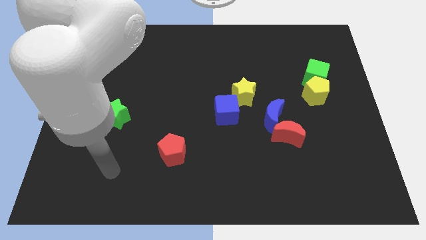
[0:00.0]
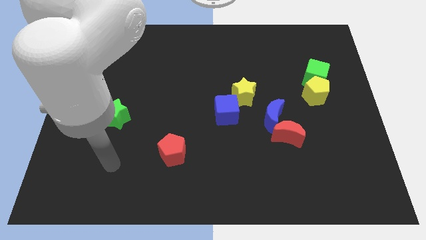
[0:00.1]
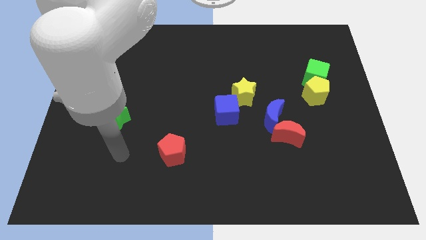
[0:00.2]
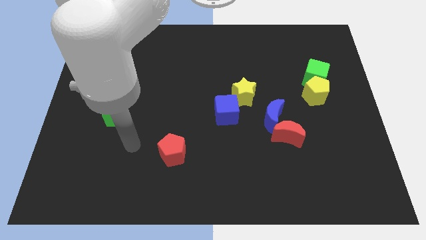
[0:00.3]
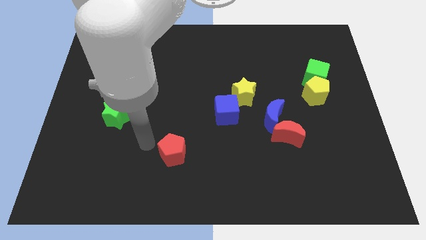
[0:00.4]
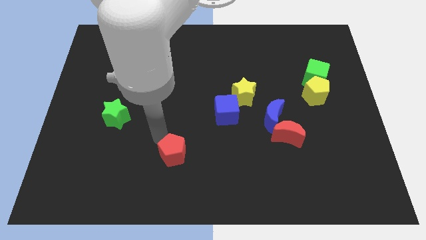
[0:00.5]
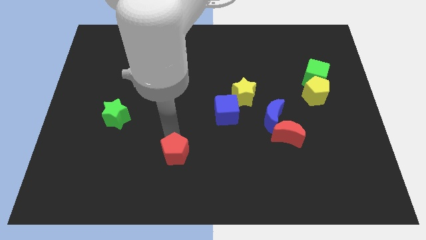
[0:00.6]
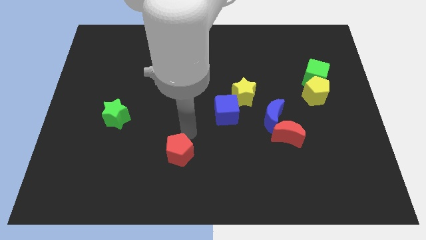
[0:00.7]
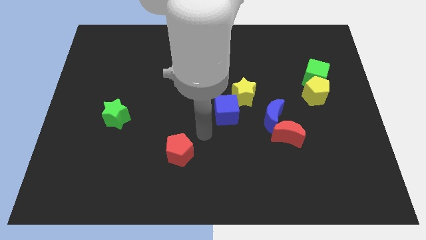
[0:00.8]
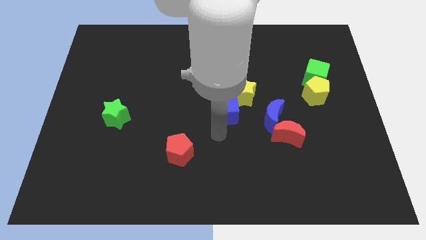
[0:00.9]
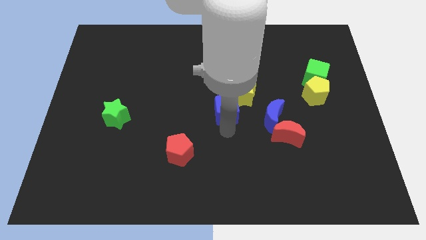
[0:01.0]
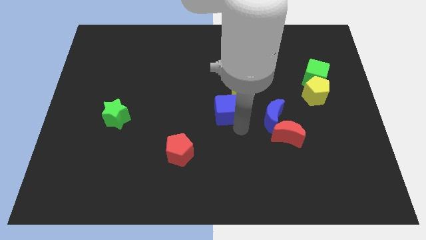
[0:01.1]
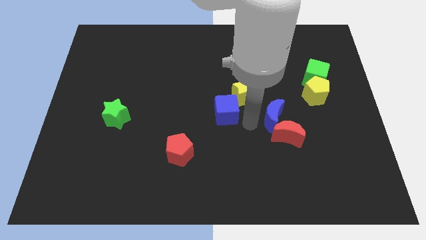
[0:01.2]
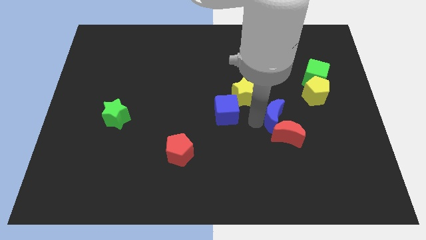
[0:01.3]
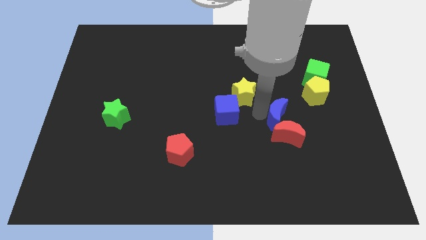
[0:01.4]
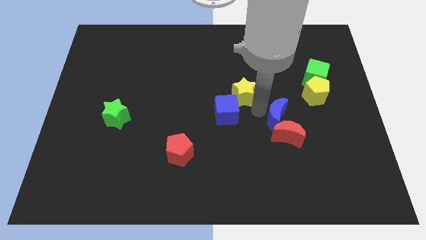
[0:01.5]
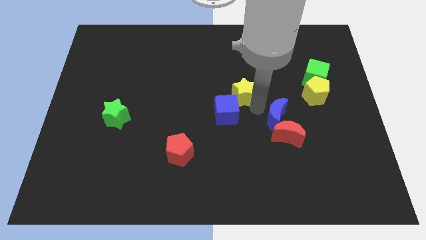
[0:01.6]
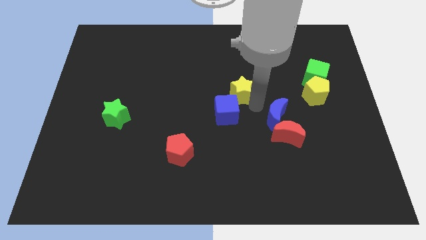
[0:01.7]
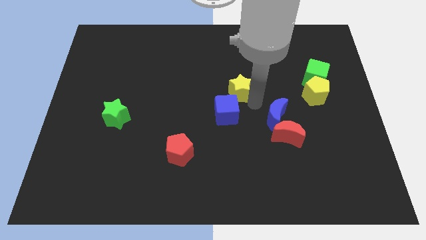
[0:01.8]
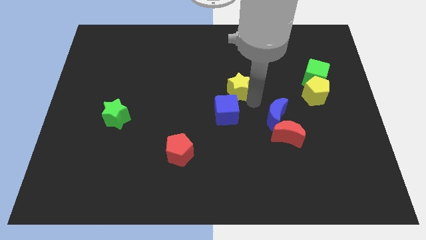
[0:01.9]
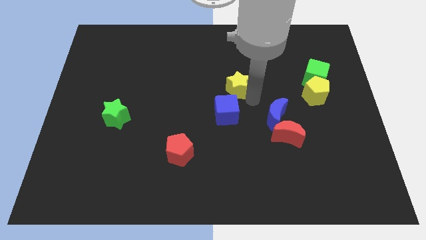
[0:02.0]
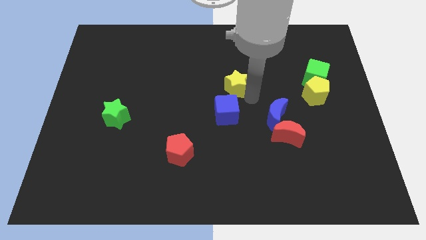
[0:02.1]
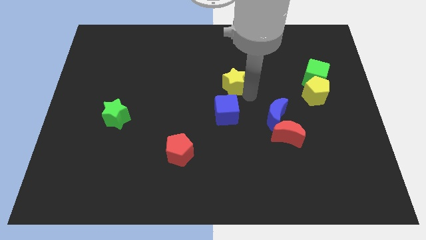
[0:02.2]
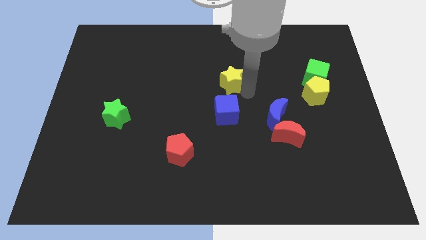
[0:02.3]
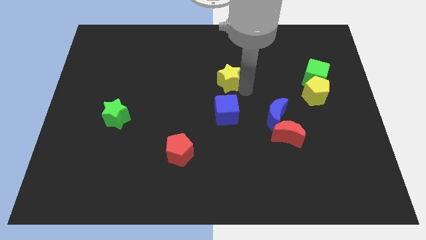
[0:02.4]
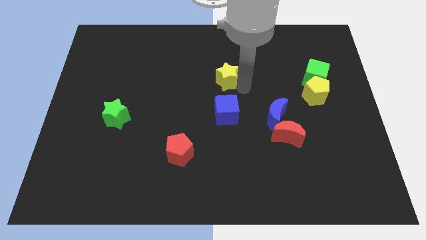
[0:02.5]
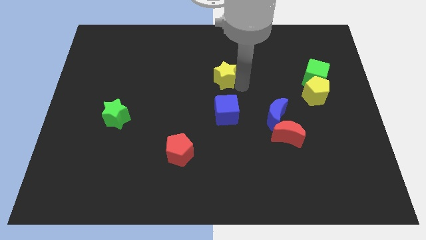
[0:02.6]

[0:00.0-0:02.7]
push the yellow star diagonally up and to the left slightly

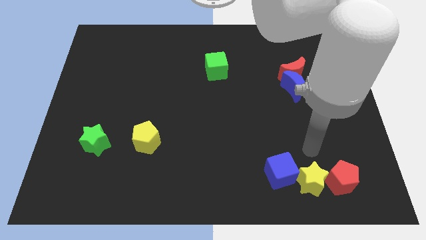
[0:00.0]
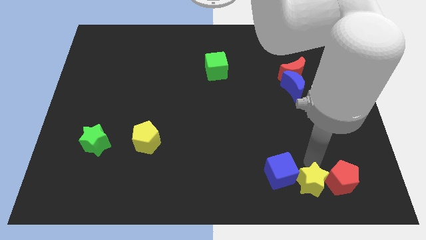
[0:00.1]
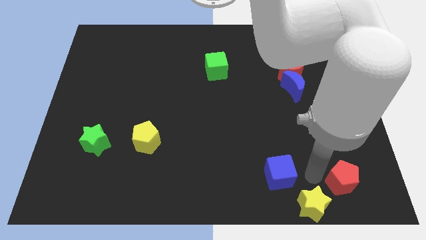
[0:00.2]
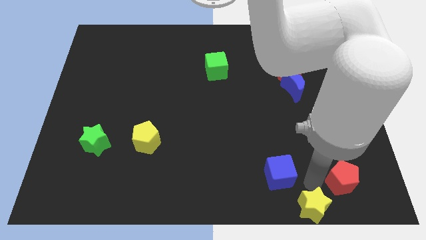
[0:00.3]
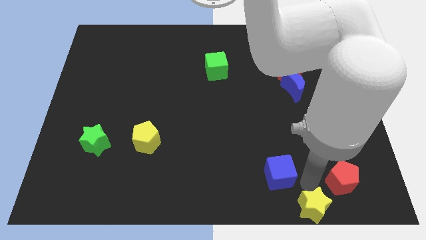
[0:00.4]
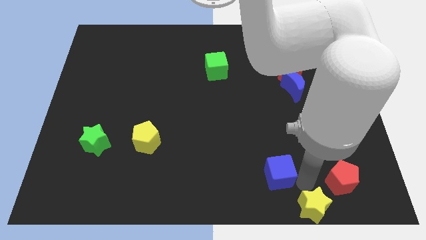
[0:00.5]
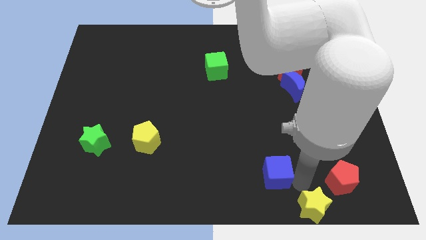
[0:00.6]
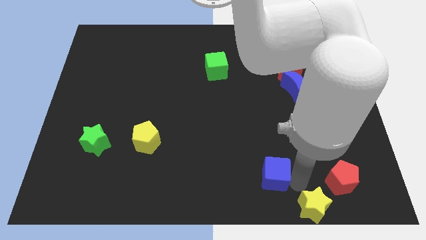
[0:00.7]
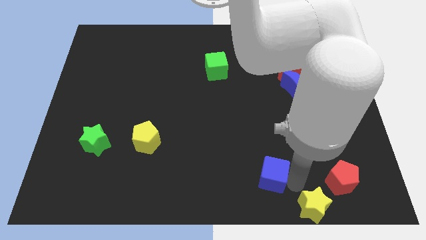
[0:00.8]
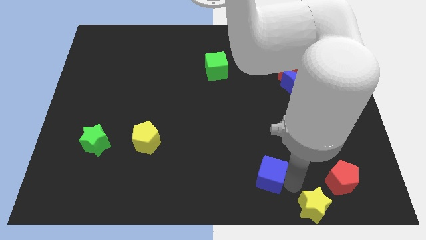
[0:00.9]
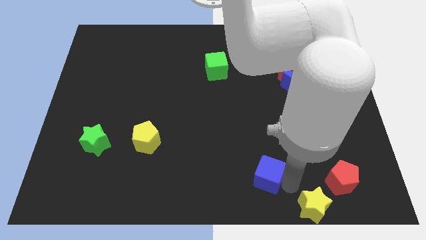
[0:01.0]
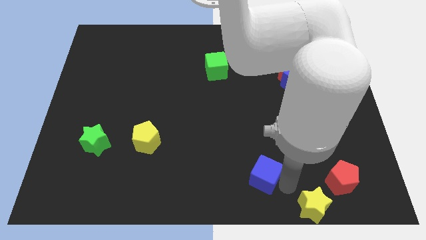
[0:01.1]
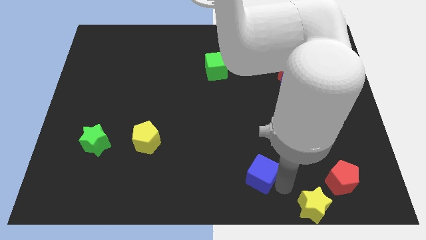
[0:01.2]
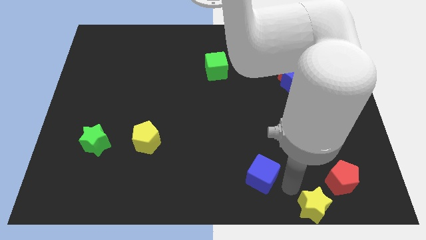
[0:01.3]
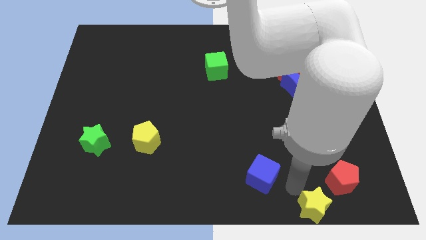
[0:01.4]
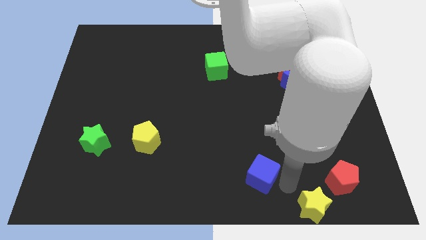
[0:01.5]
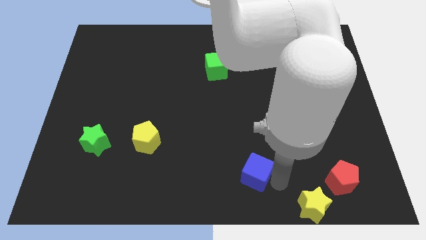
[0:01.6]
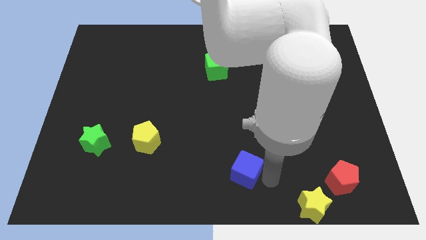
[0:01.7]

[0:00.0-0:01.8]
slide the blue cube to the left slightly

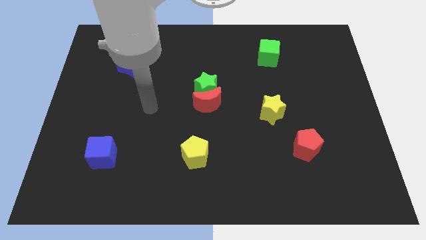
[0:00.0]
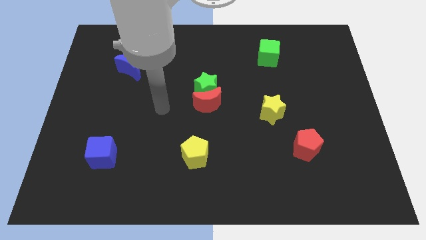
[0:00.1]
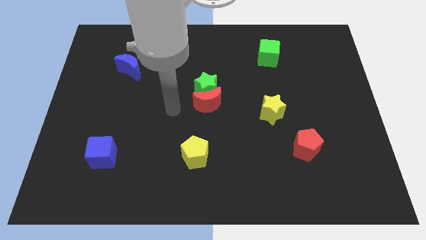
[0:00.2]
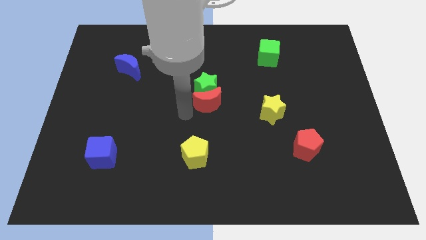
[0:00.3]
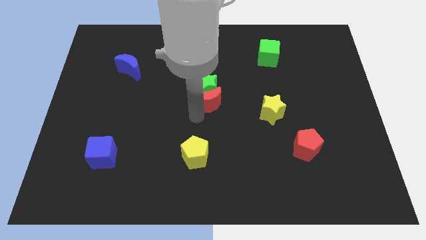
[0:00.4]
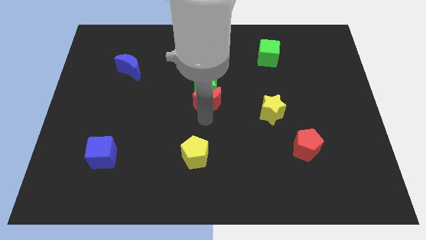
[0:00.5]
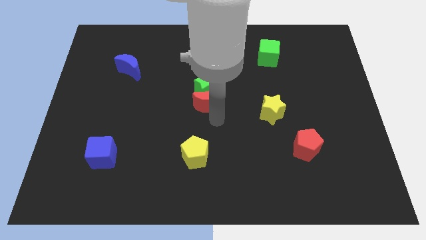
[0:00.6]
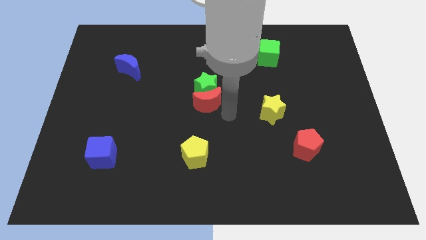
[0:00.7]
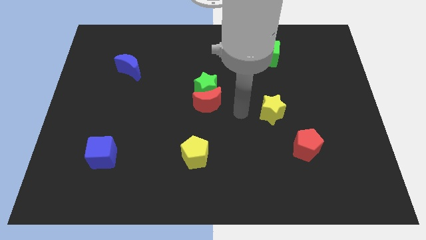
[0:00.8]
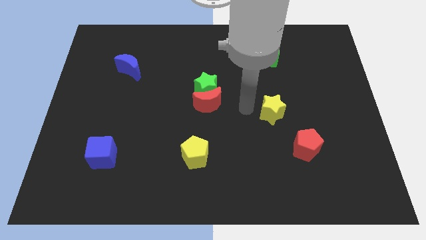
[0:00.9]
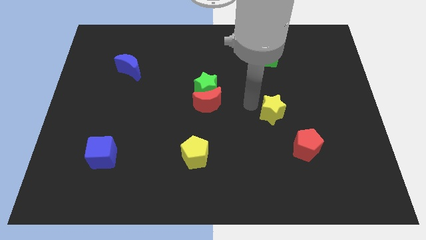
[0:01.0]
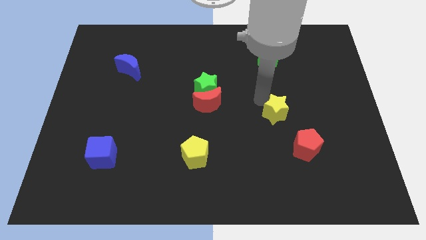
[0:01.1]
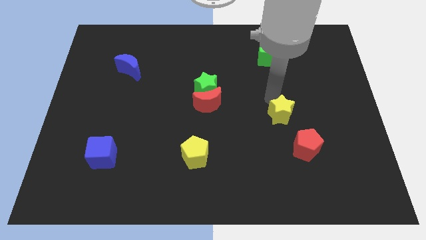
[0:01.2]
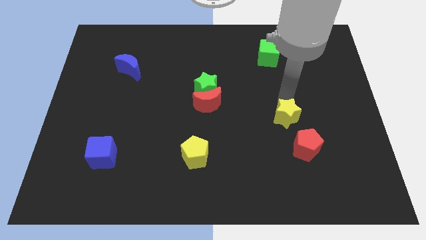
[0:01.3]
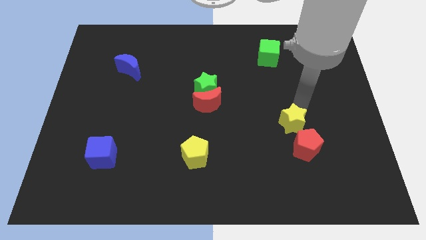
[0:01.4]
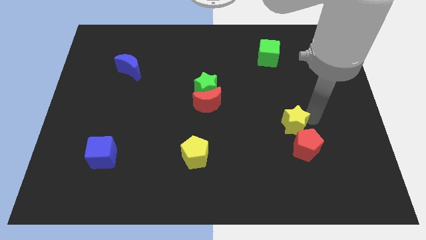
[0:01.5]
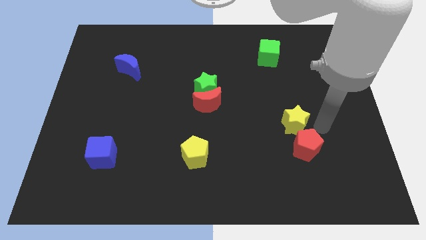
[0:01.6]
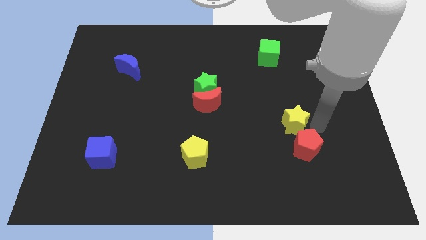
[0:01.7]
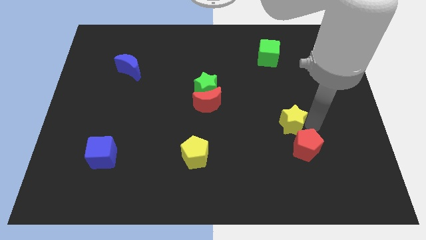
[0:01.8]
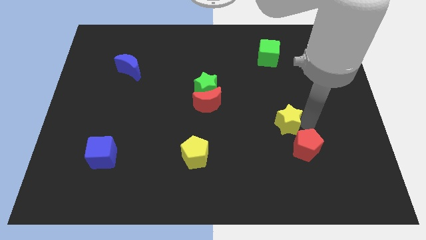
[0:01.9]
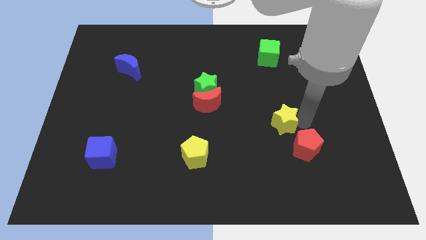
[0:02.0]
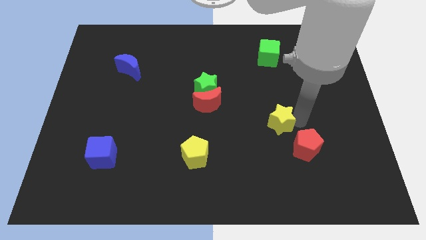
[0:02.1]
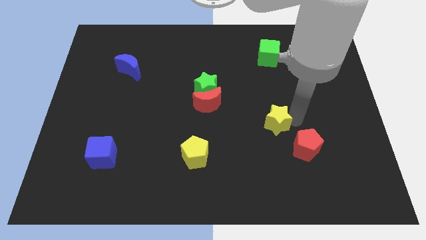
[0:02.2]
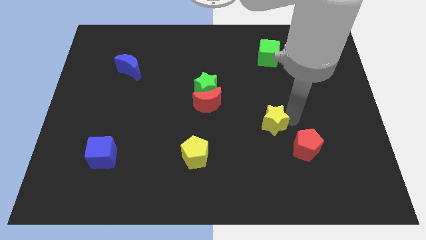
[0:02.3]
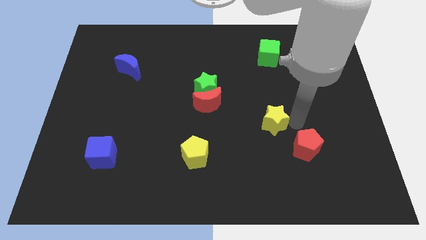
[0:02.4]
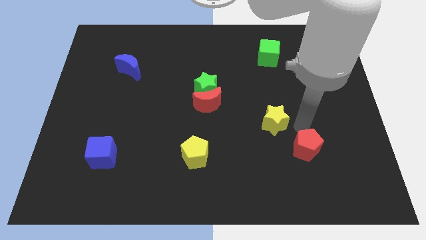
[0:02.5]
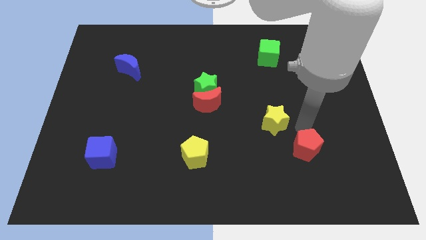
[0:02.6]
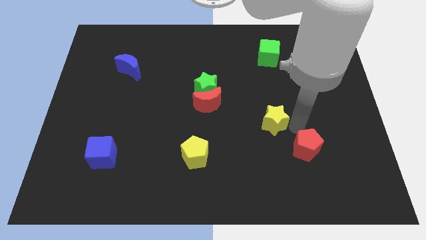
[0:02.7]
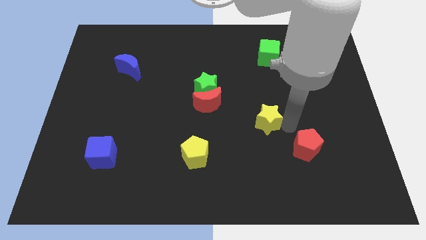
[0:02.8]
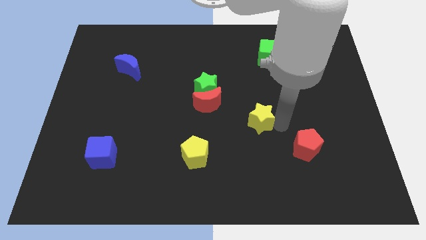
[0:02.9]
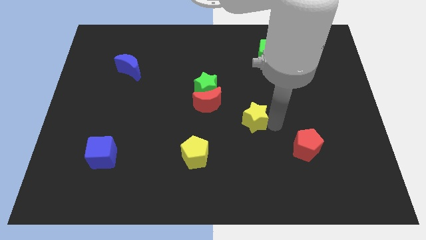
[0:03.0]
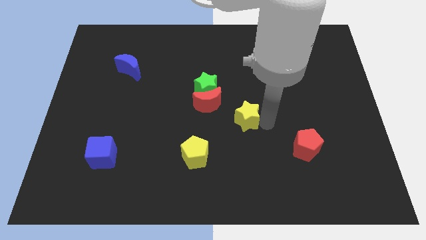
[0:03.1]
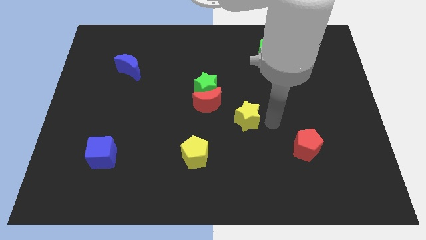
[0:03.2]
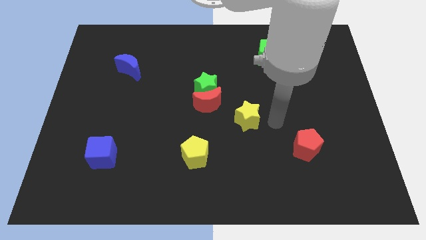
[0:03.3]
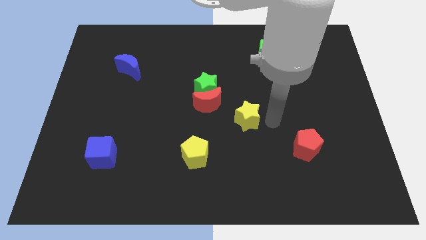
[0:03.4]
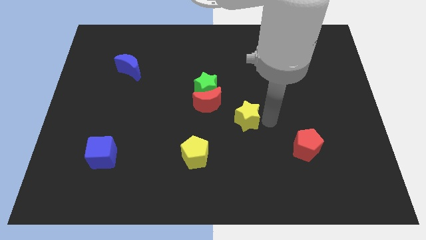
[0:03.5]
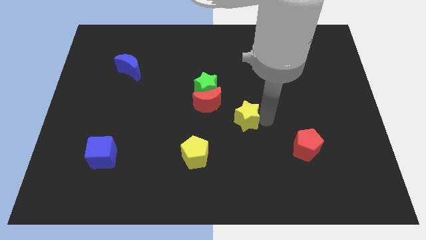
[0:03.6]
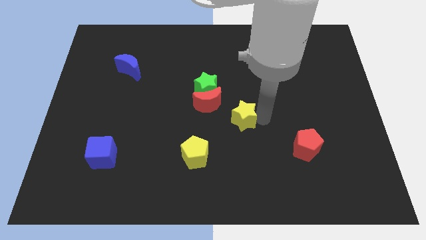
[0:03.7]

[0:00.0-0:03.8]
push the yellow star to the left slightly
